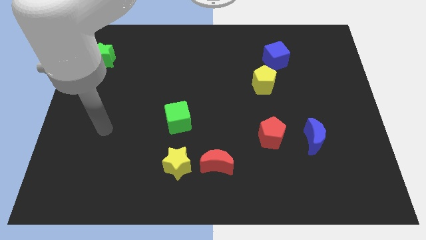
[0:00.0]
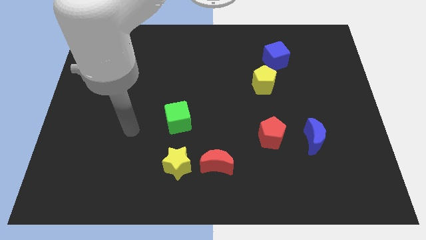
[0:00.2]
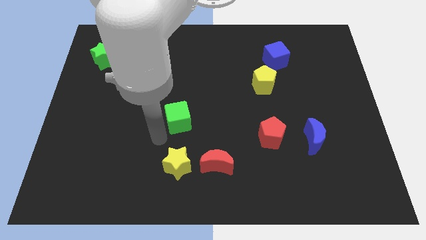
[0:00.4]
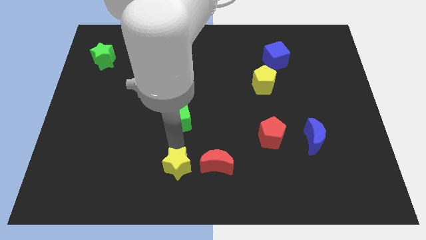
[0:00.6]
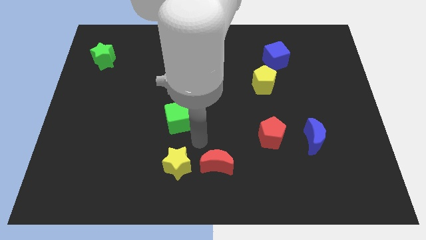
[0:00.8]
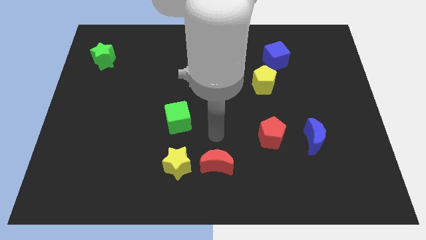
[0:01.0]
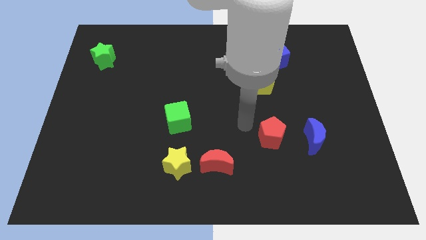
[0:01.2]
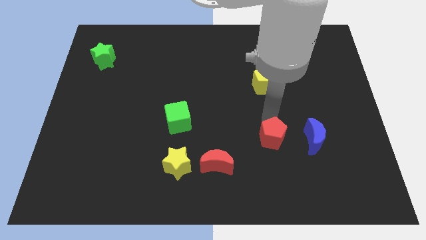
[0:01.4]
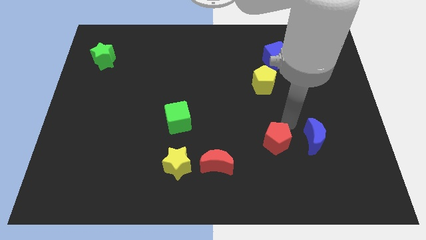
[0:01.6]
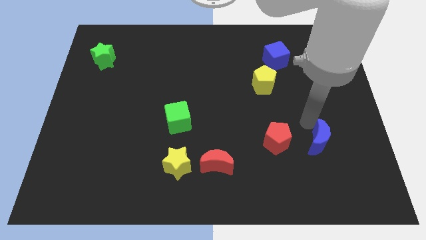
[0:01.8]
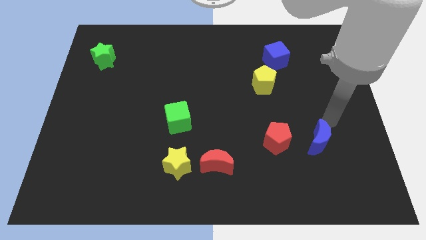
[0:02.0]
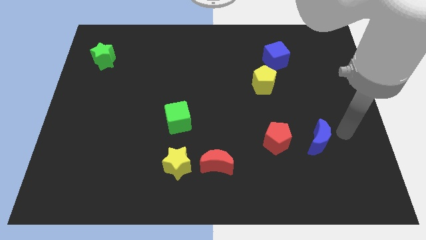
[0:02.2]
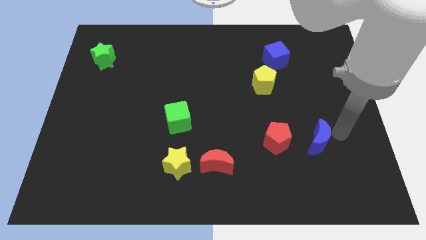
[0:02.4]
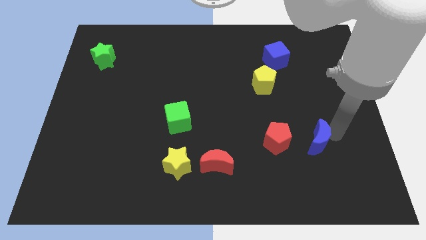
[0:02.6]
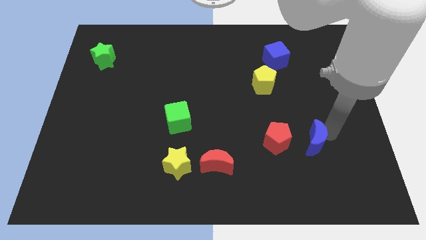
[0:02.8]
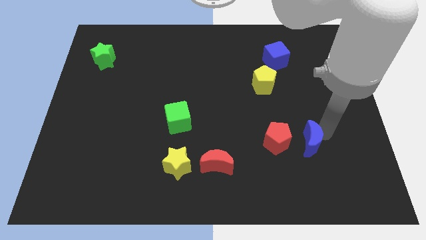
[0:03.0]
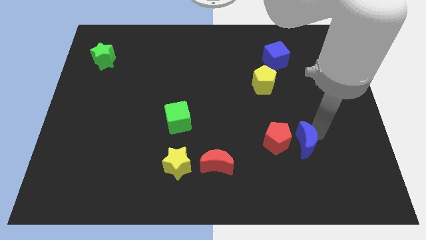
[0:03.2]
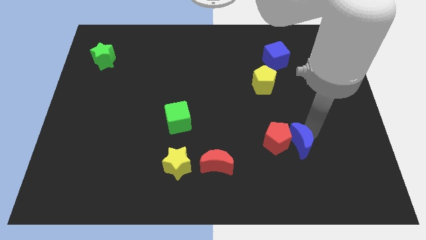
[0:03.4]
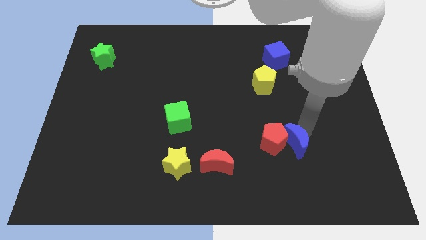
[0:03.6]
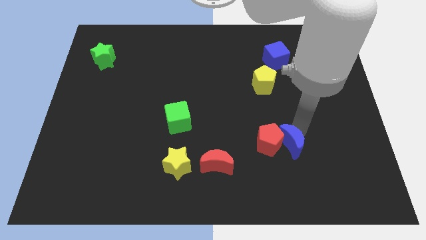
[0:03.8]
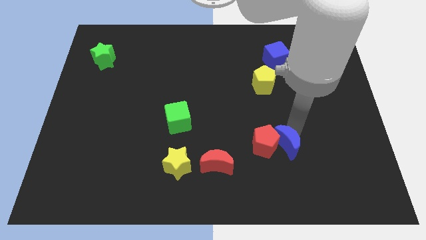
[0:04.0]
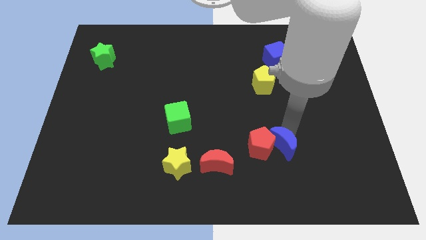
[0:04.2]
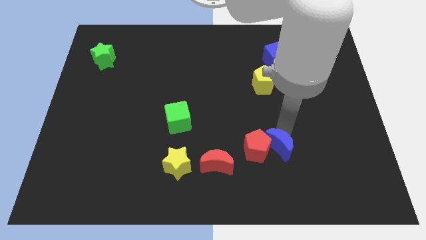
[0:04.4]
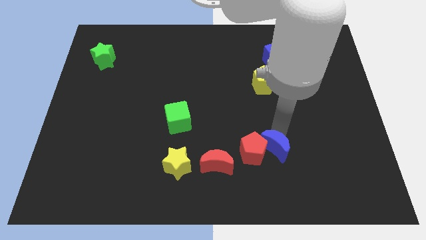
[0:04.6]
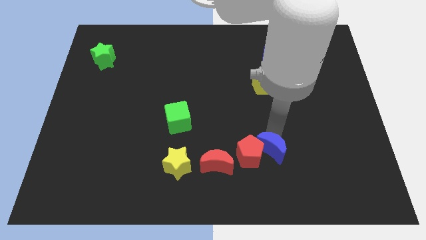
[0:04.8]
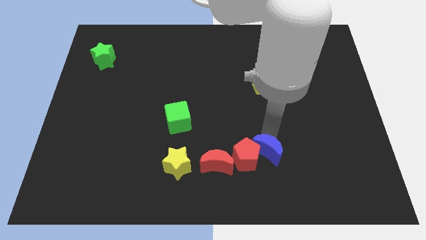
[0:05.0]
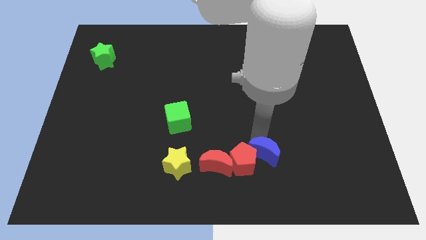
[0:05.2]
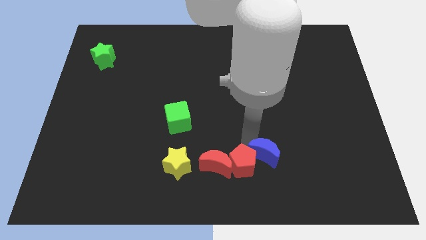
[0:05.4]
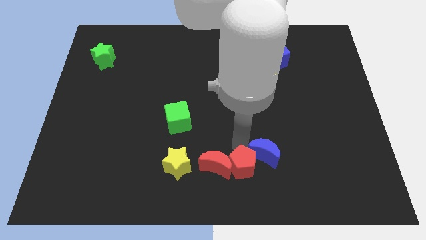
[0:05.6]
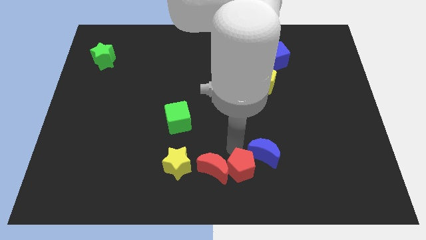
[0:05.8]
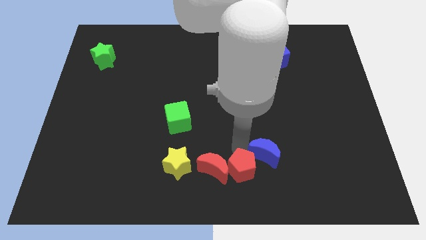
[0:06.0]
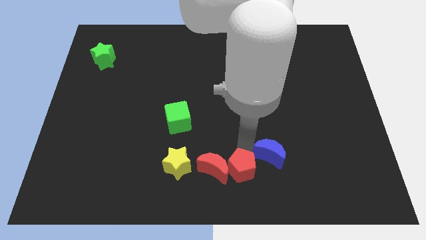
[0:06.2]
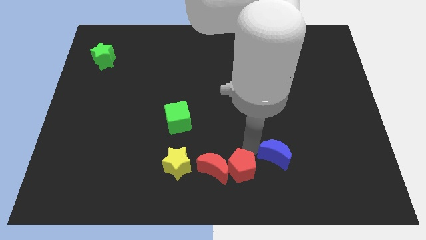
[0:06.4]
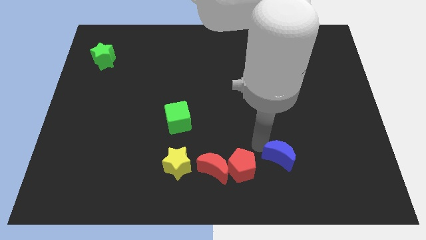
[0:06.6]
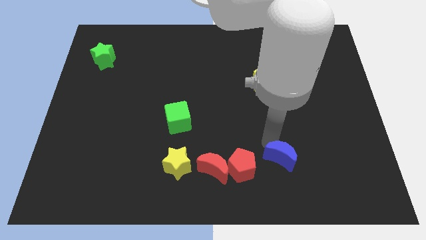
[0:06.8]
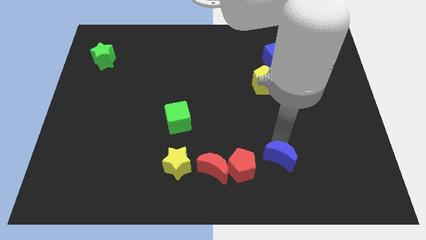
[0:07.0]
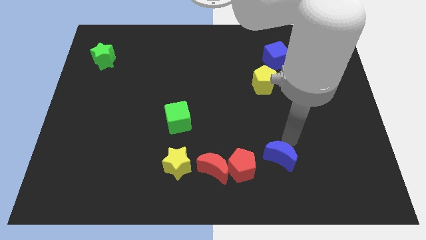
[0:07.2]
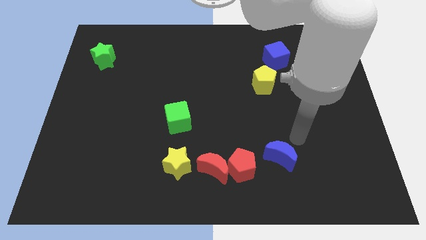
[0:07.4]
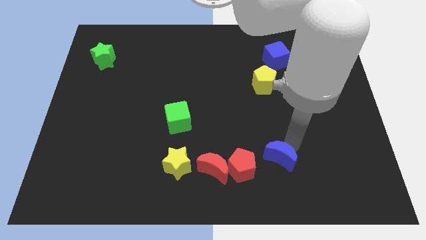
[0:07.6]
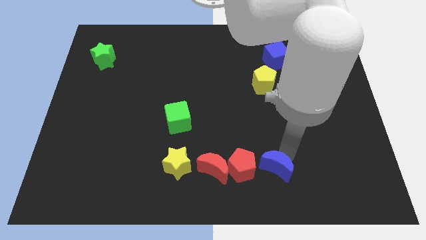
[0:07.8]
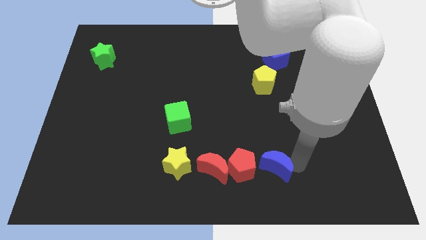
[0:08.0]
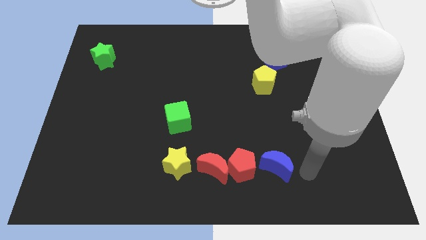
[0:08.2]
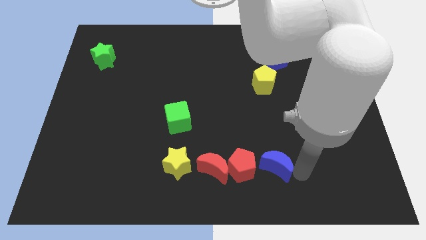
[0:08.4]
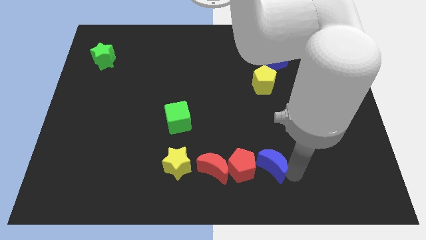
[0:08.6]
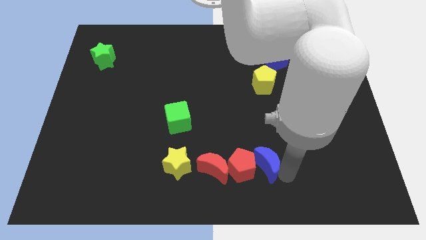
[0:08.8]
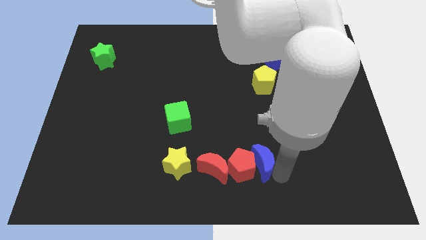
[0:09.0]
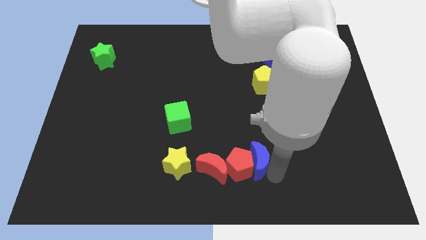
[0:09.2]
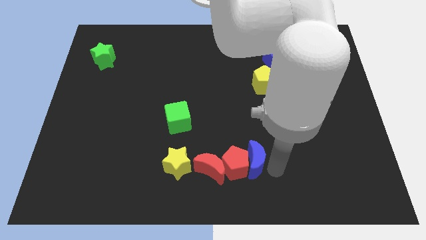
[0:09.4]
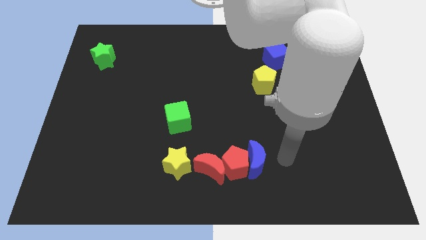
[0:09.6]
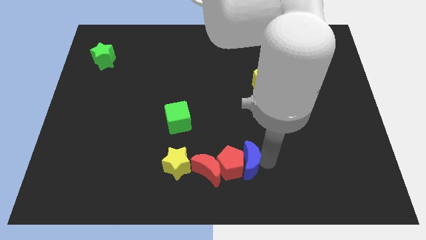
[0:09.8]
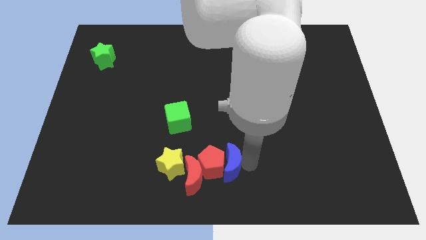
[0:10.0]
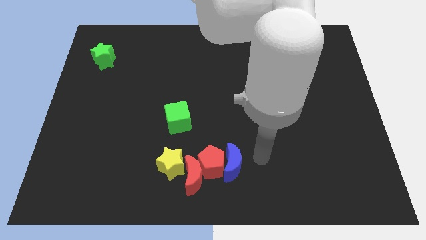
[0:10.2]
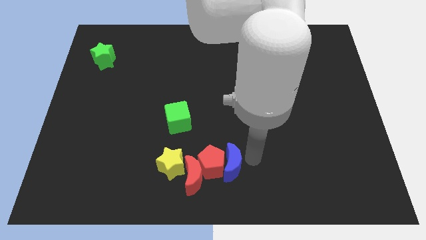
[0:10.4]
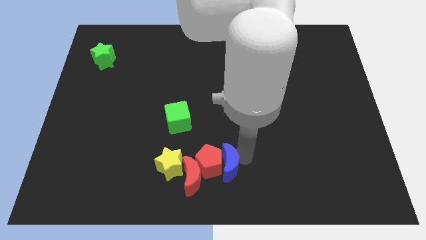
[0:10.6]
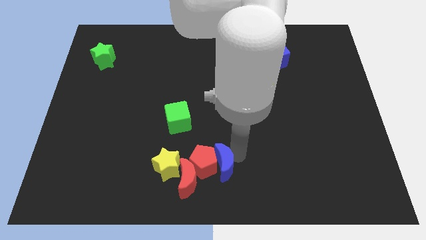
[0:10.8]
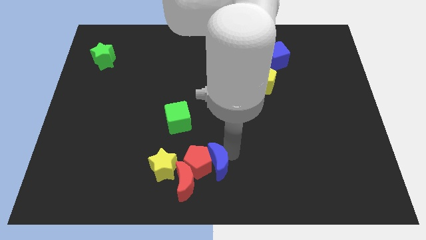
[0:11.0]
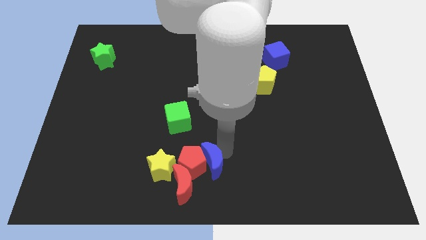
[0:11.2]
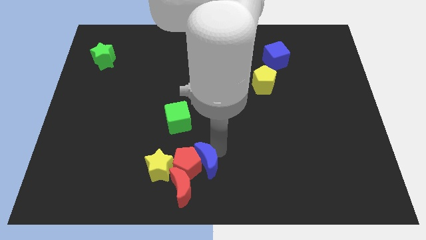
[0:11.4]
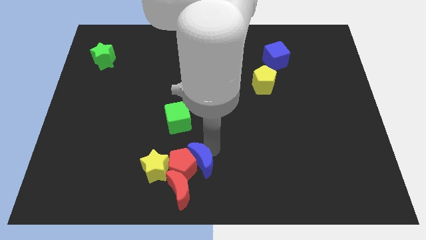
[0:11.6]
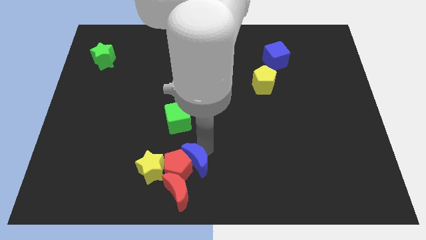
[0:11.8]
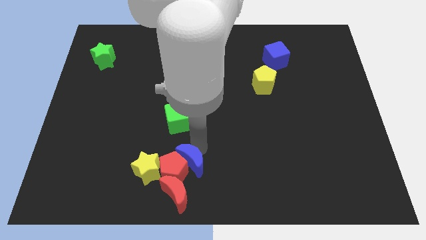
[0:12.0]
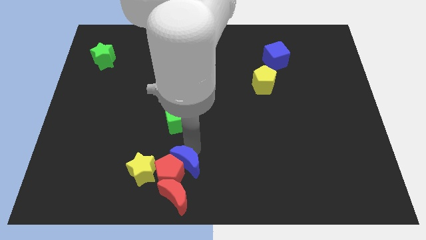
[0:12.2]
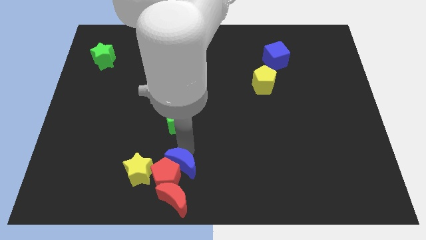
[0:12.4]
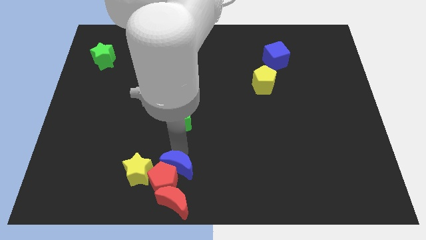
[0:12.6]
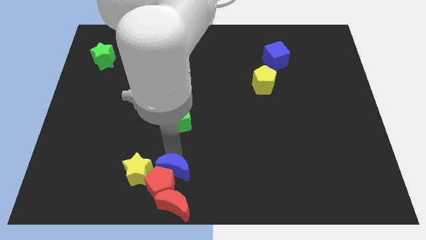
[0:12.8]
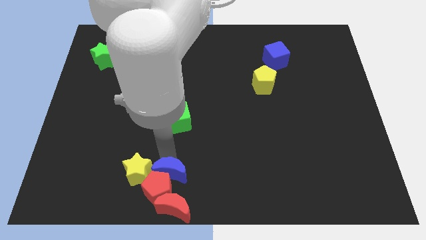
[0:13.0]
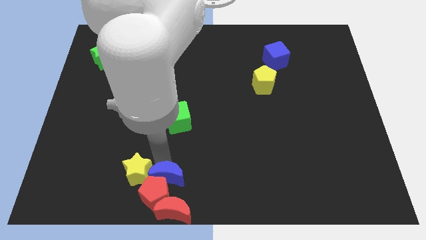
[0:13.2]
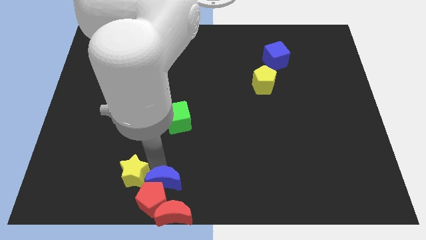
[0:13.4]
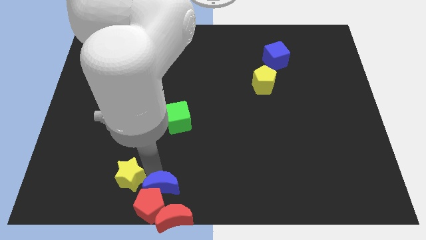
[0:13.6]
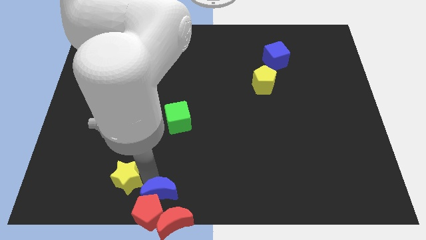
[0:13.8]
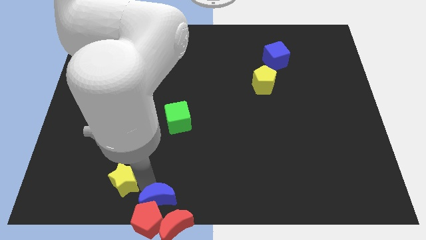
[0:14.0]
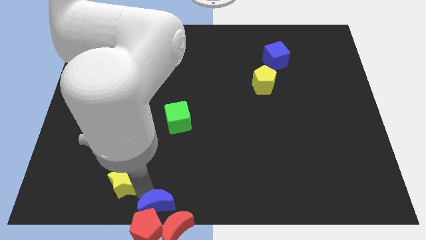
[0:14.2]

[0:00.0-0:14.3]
slide the blue moon next to the red moon
